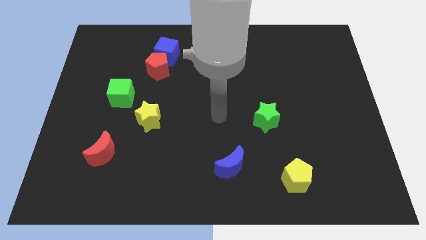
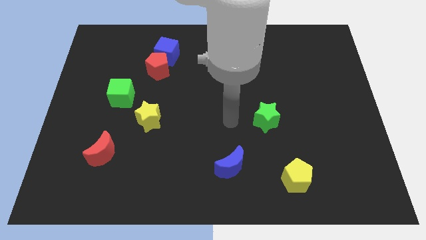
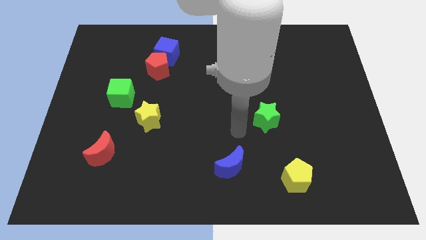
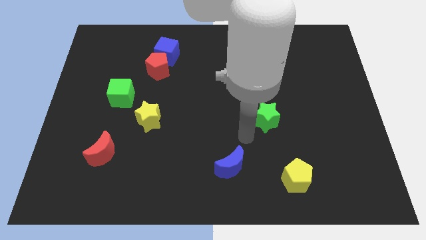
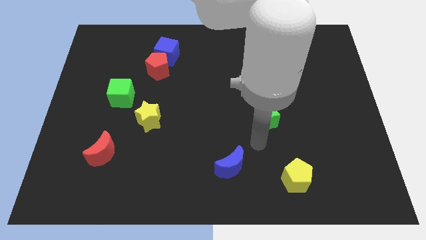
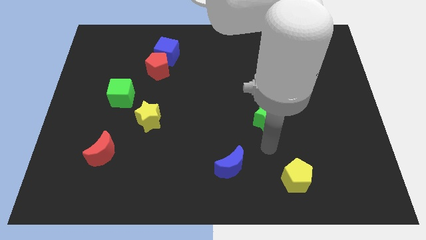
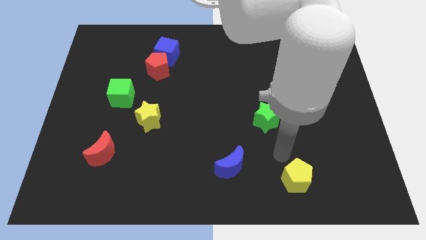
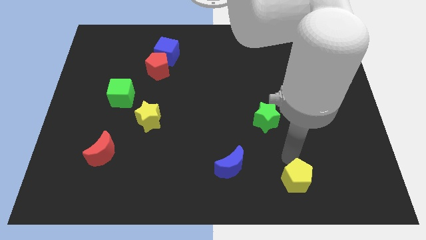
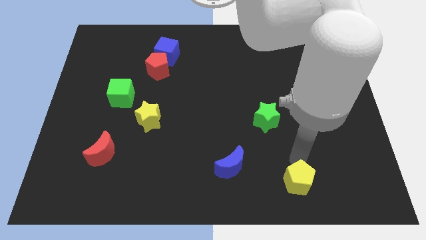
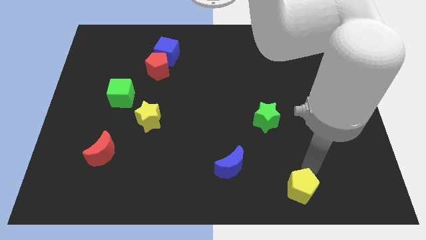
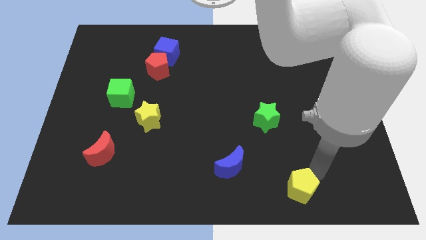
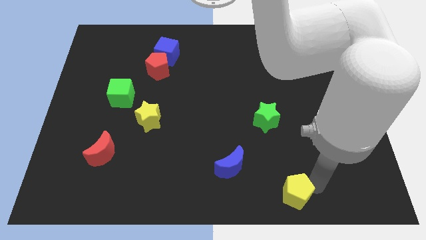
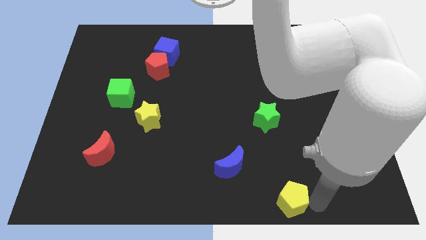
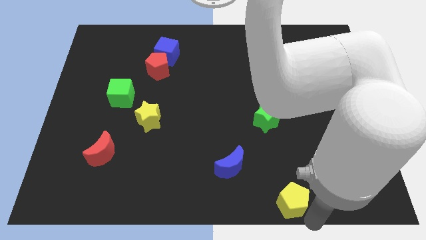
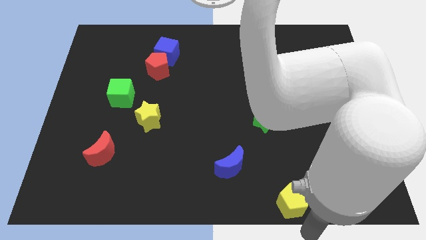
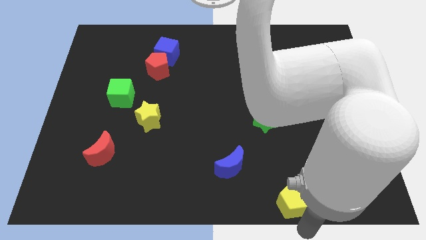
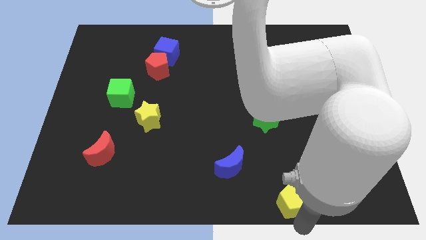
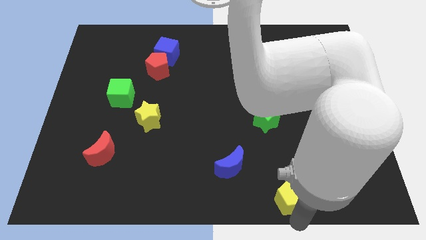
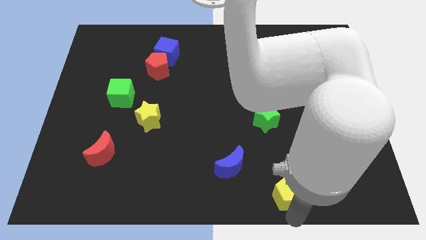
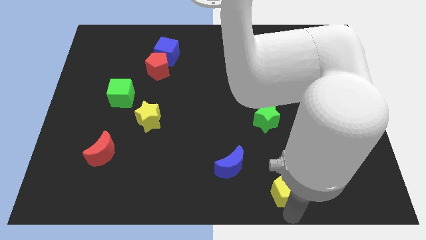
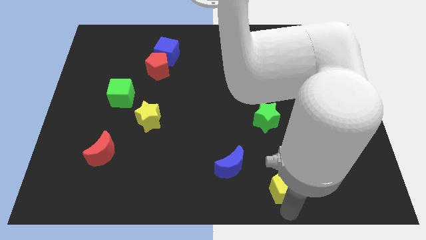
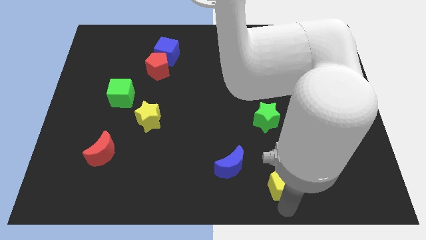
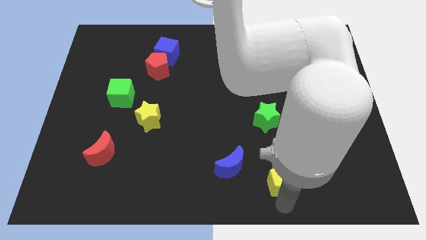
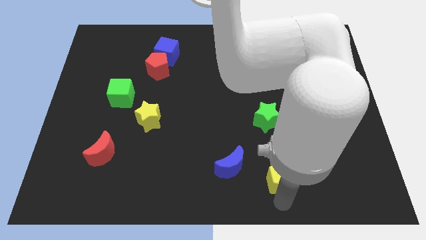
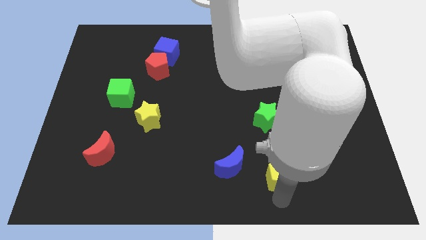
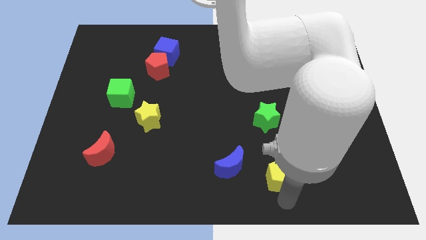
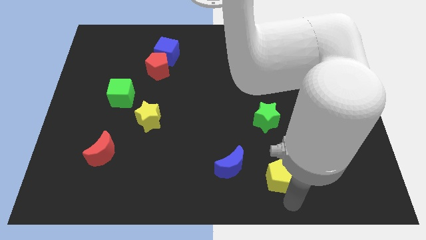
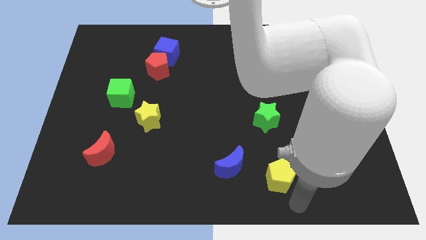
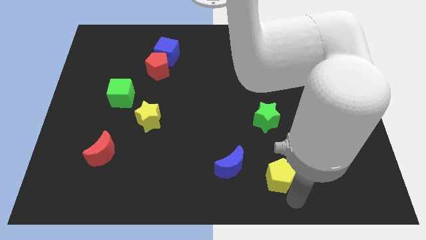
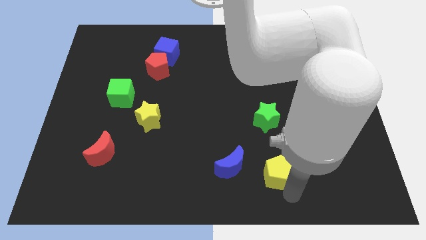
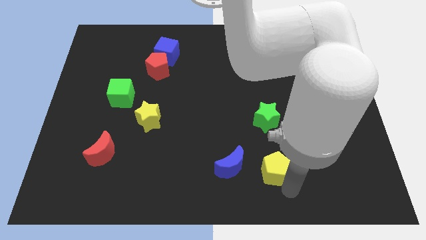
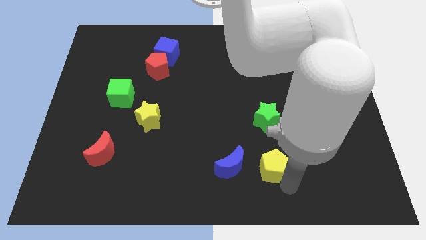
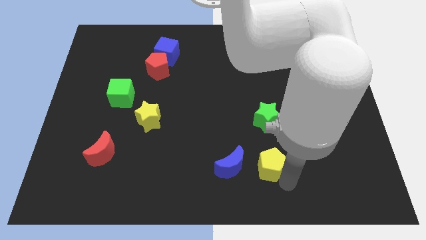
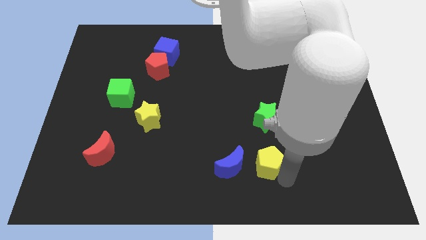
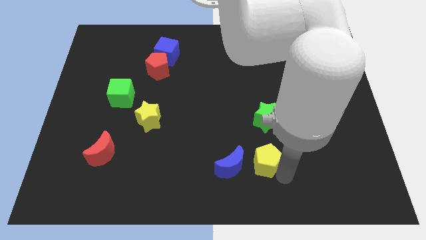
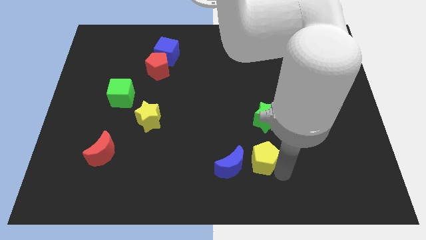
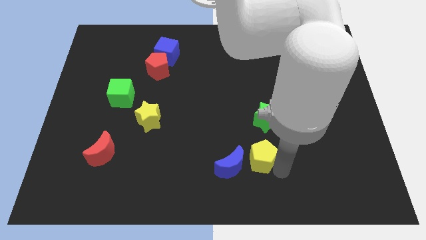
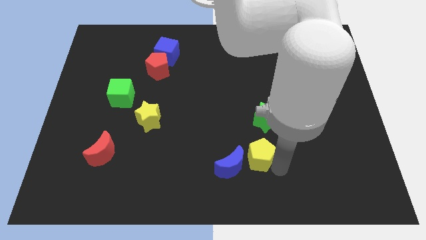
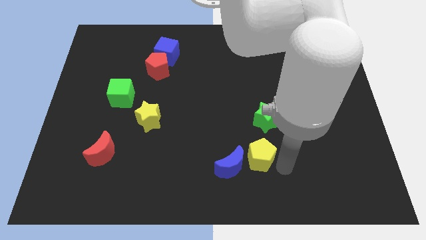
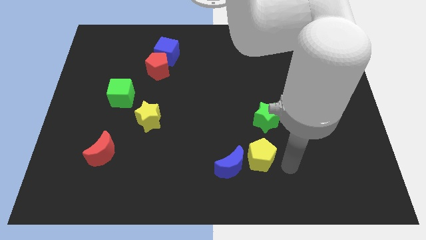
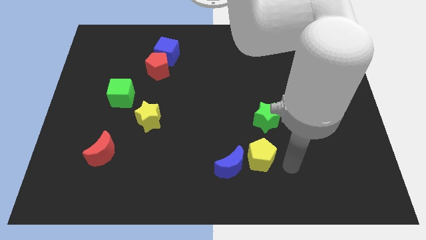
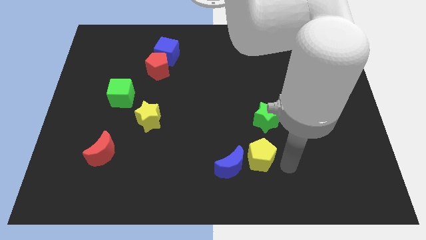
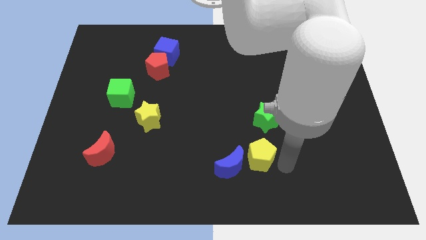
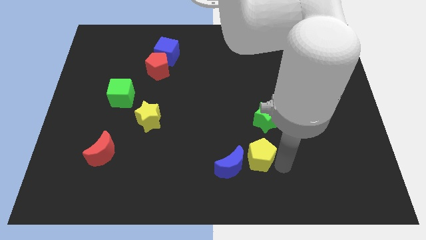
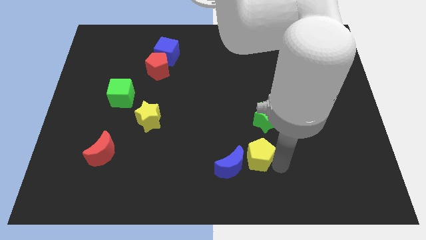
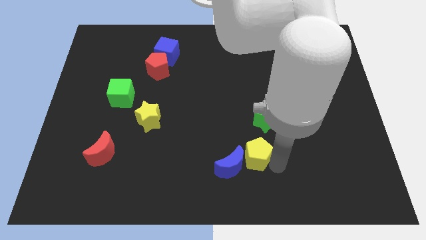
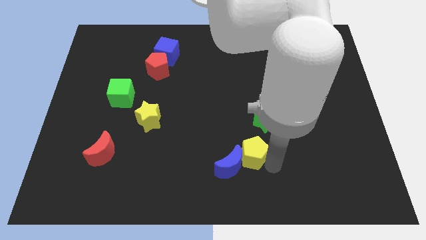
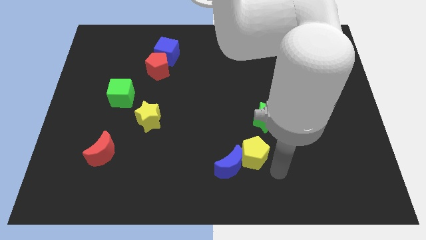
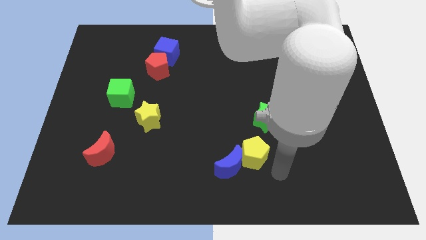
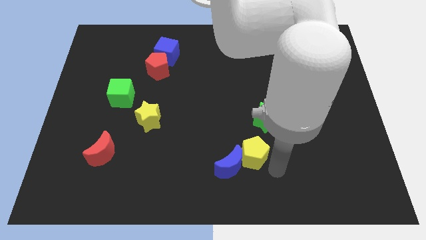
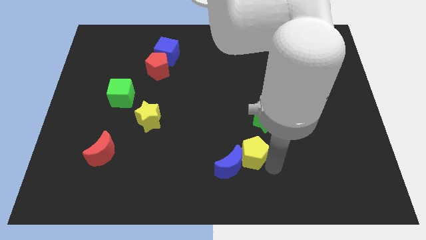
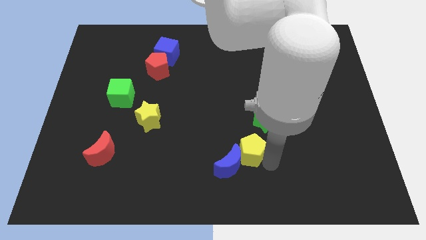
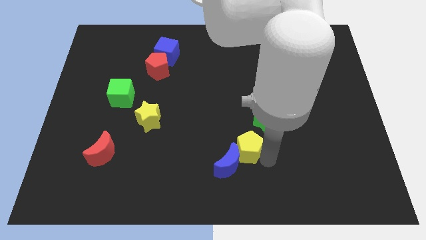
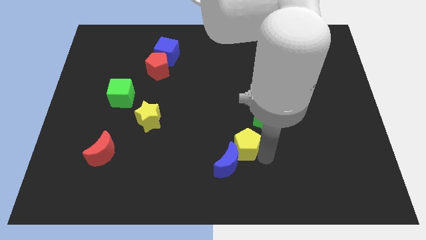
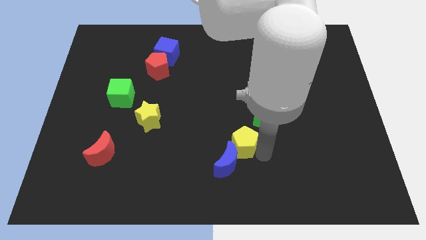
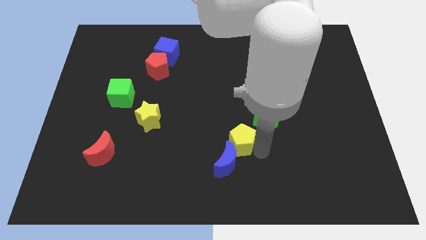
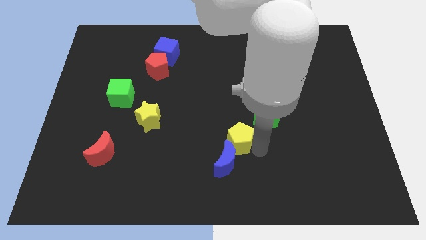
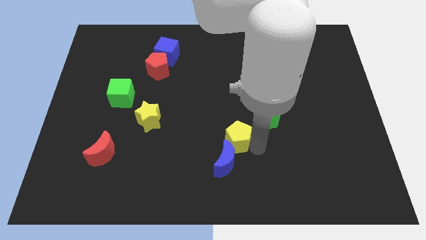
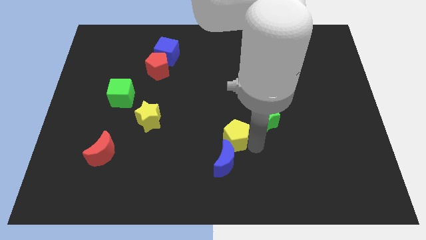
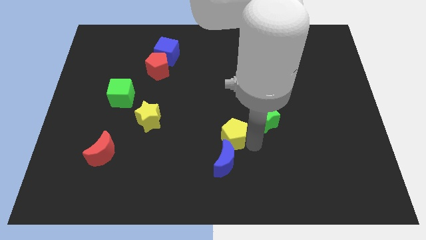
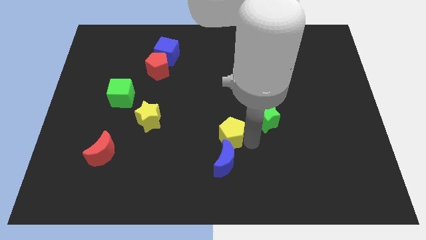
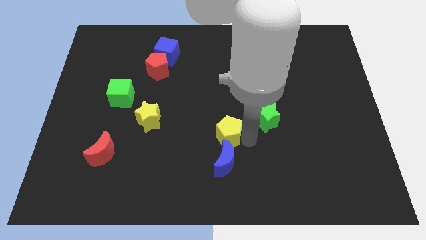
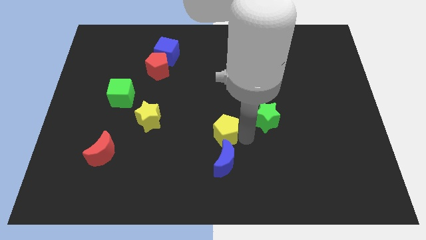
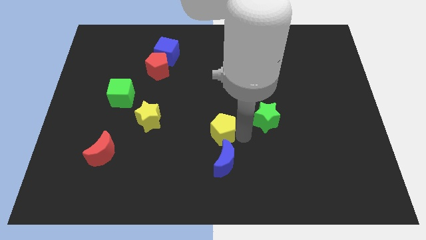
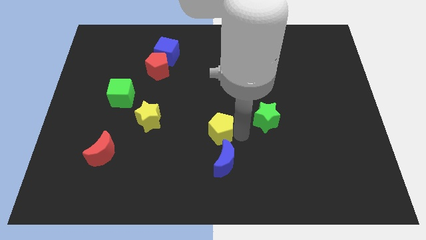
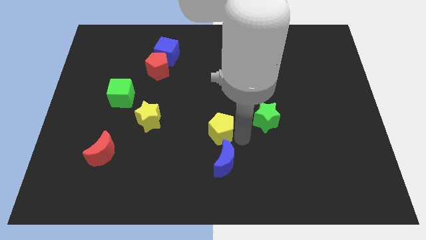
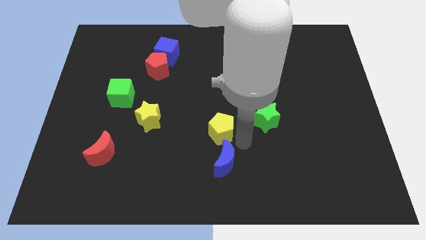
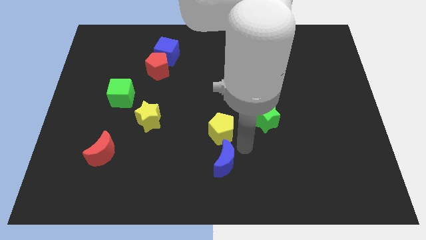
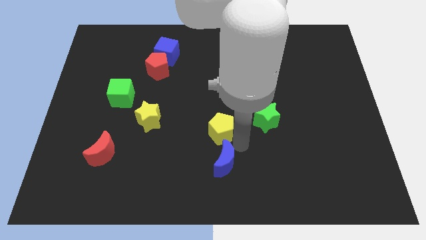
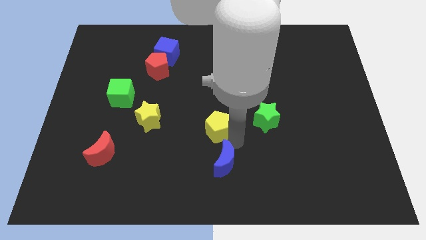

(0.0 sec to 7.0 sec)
slide the yellow pentagon up and left diagonally

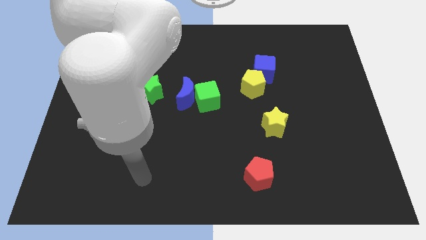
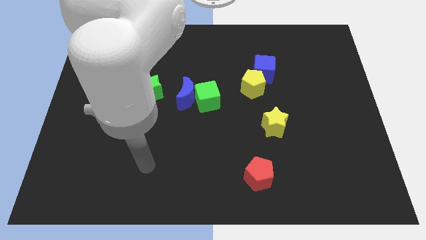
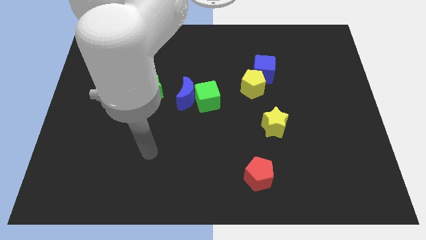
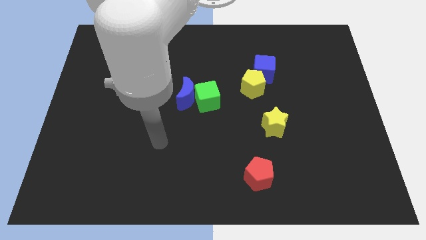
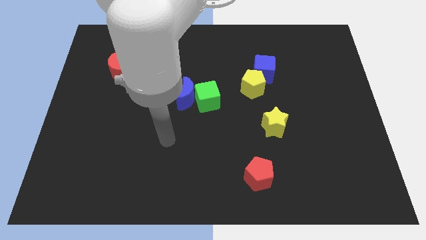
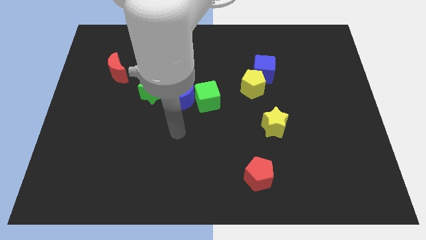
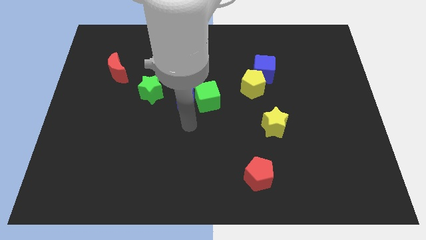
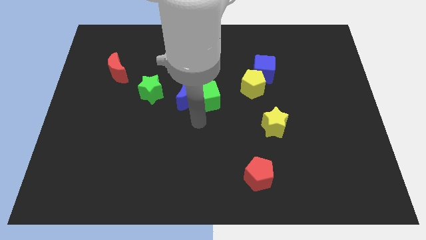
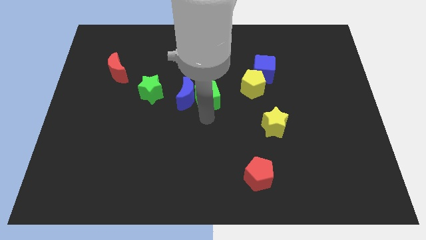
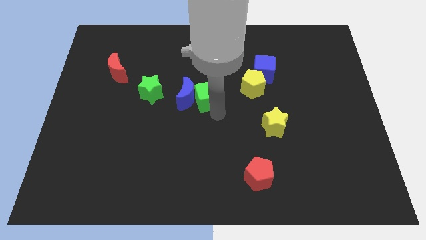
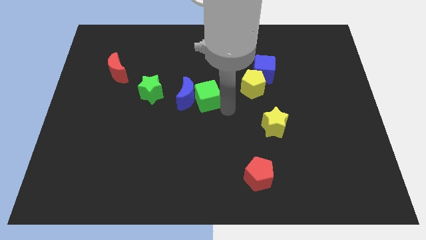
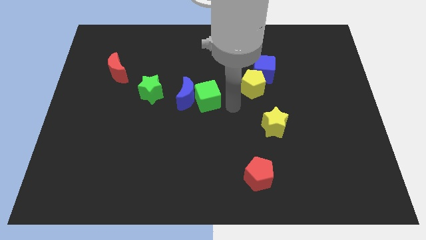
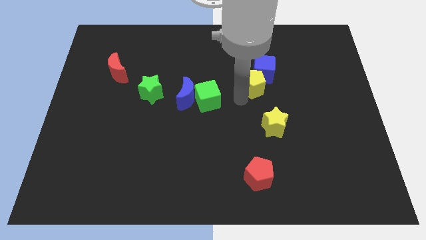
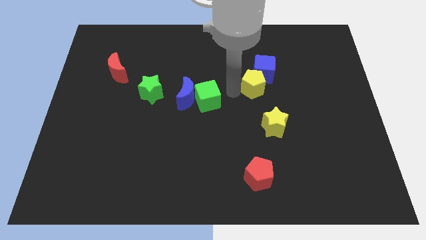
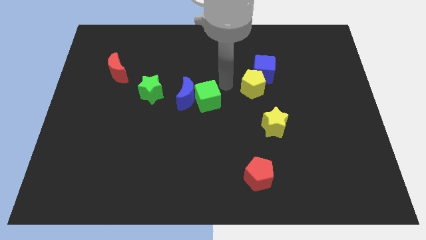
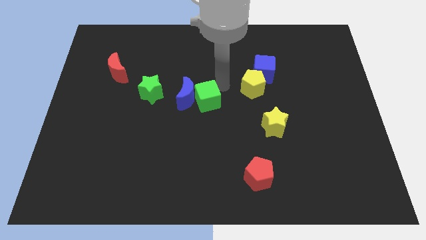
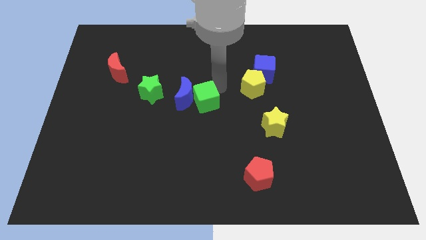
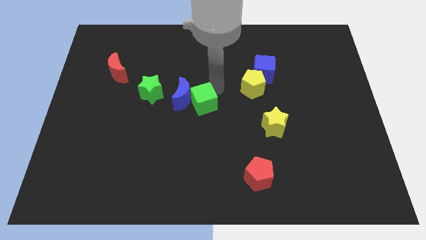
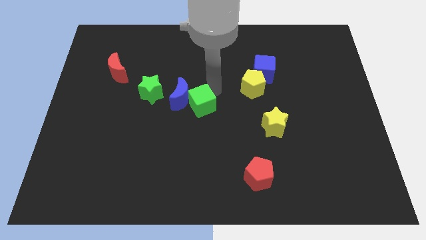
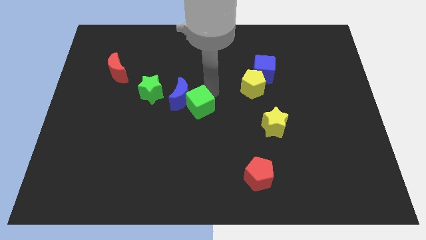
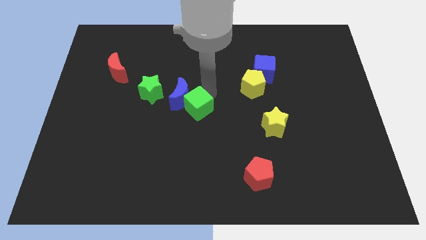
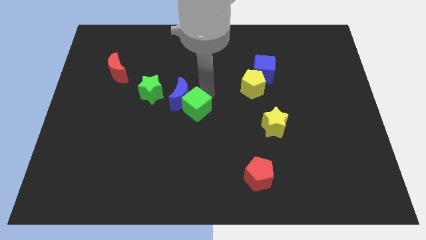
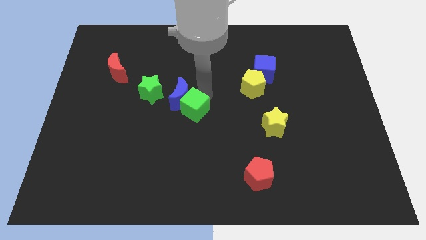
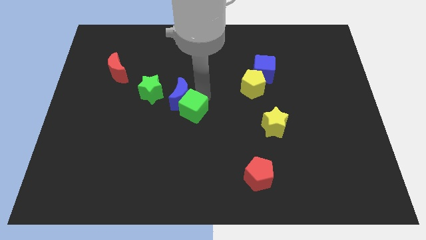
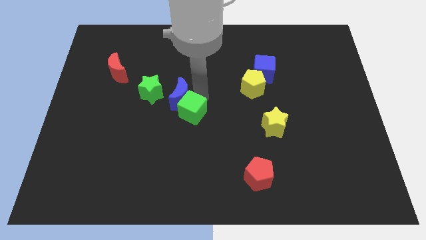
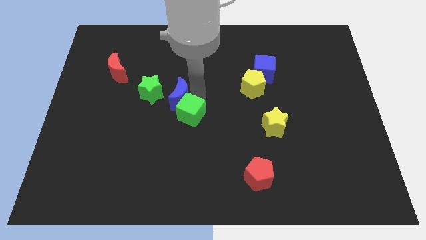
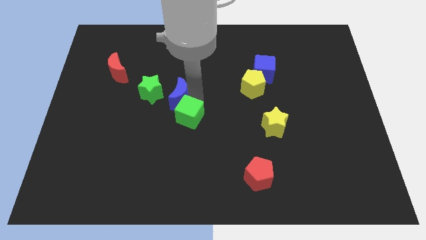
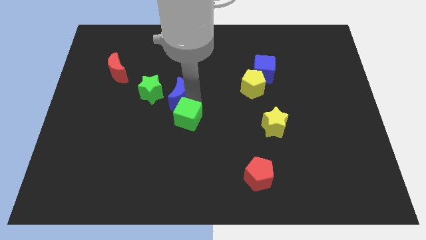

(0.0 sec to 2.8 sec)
slide the green cube a bit down and then left
